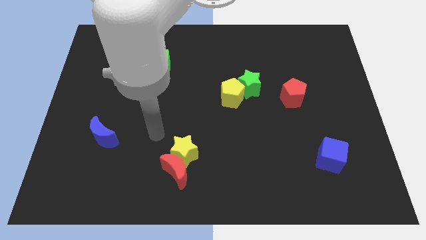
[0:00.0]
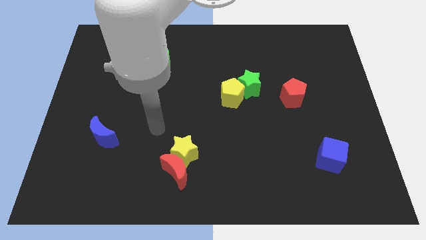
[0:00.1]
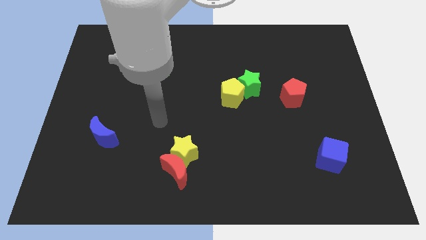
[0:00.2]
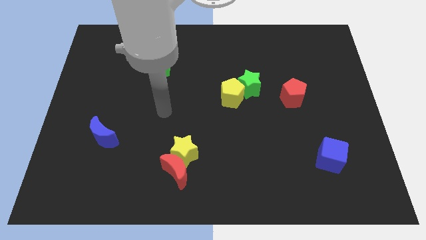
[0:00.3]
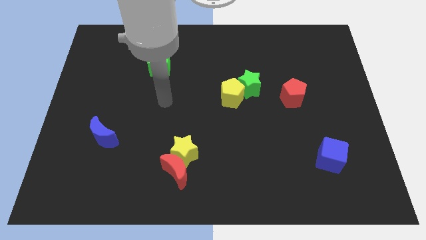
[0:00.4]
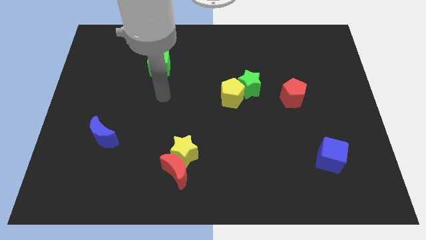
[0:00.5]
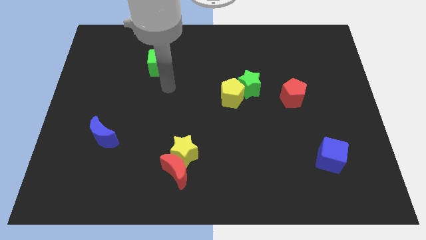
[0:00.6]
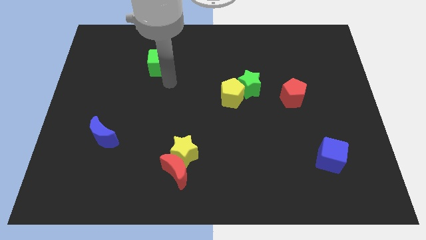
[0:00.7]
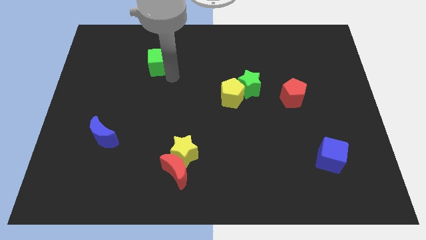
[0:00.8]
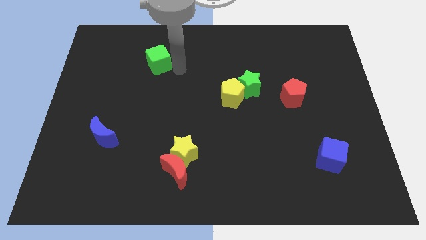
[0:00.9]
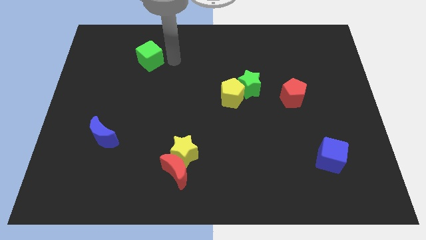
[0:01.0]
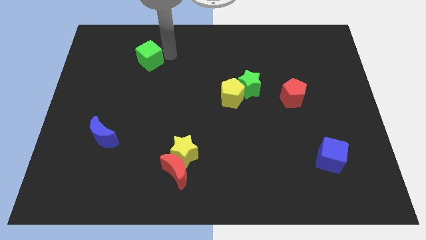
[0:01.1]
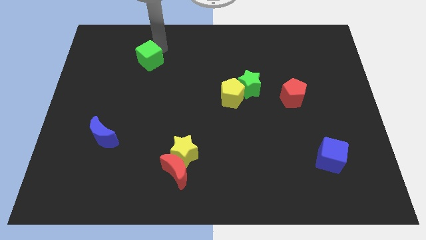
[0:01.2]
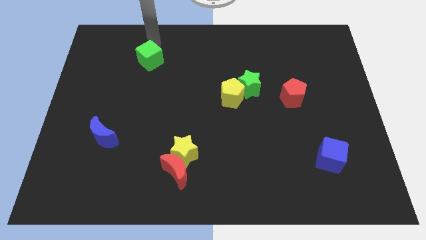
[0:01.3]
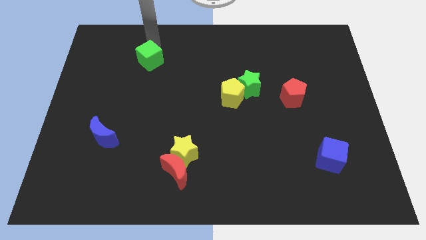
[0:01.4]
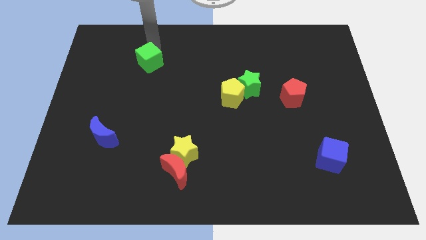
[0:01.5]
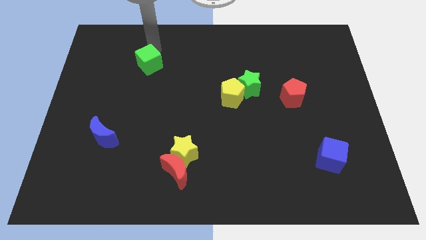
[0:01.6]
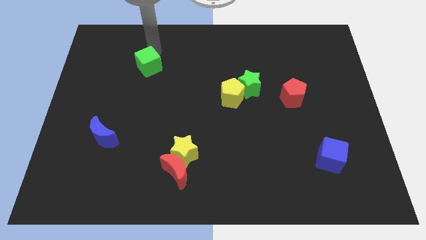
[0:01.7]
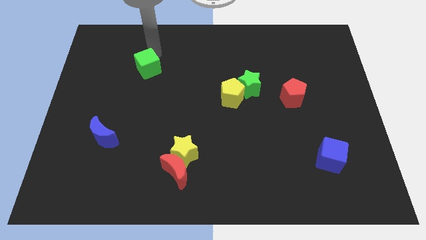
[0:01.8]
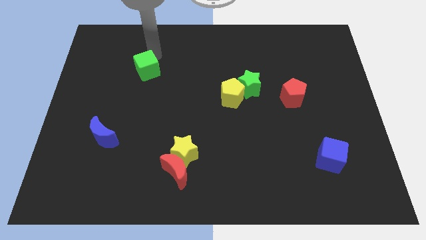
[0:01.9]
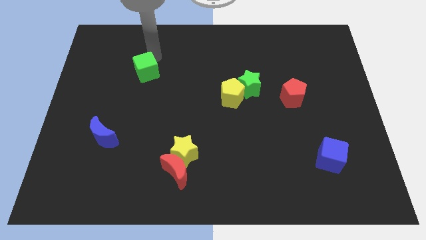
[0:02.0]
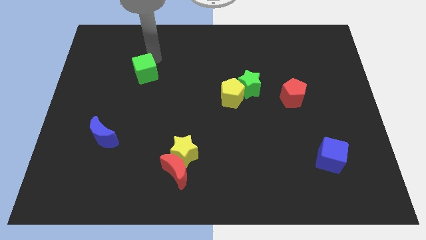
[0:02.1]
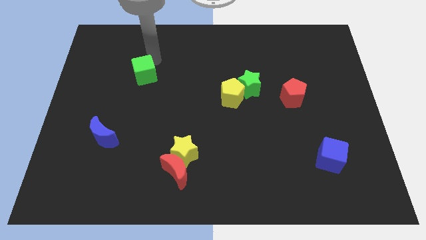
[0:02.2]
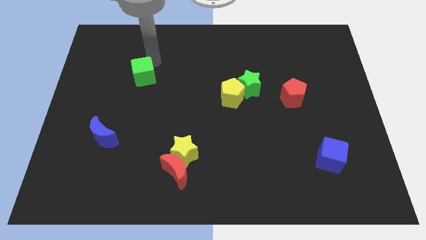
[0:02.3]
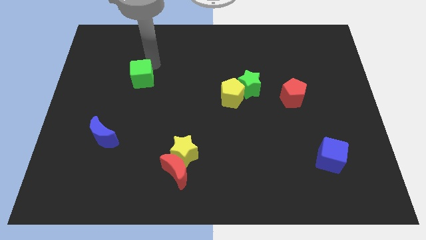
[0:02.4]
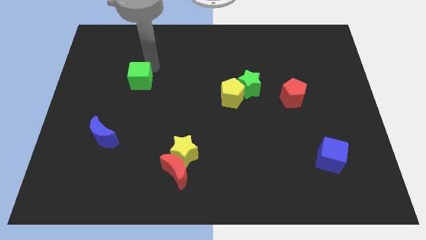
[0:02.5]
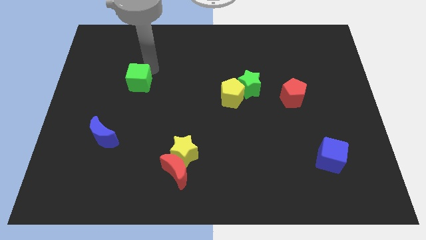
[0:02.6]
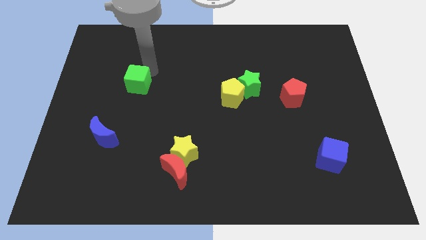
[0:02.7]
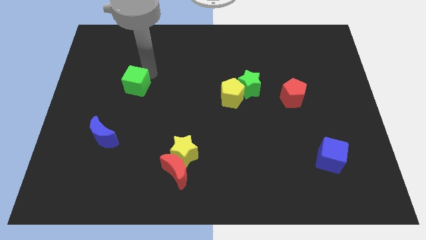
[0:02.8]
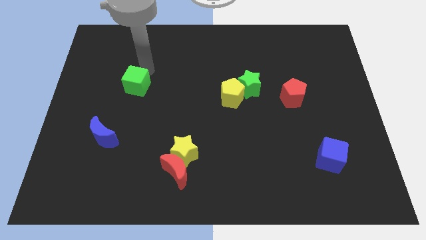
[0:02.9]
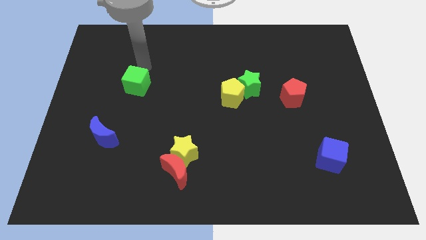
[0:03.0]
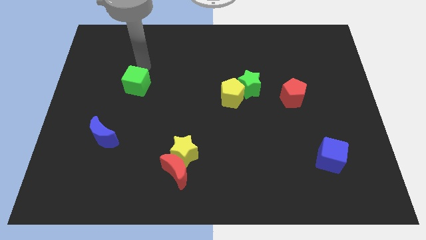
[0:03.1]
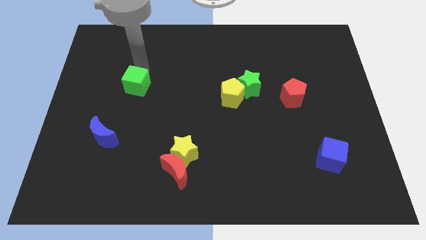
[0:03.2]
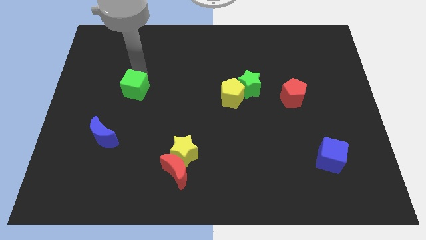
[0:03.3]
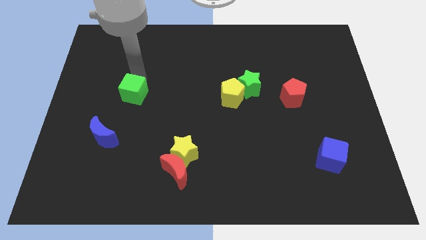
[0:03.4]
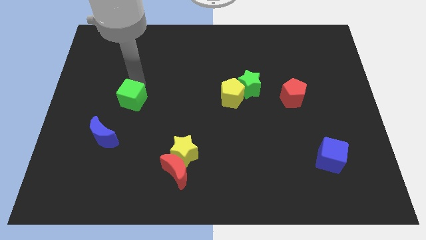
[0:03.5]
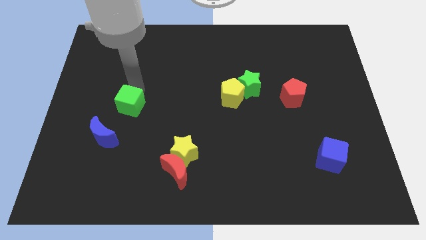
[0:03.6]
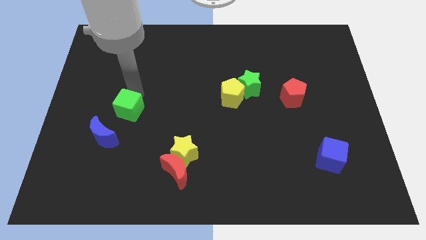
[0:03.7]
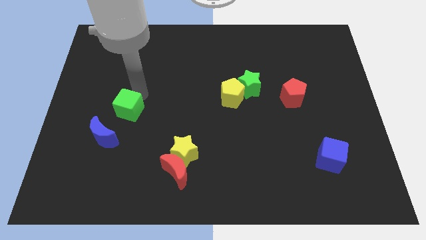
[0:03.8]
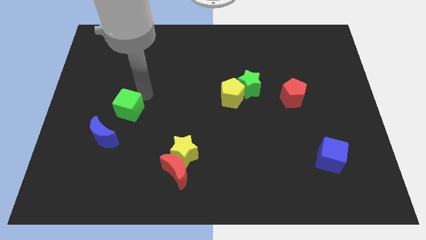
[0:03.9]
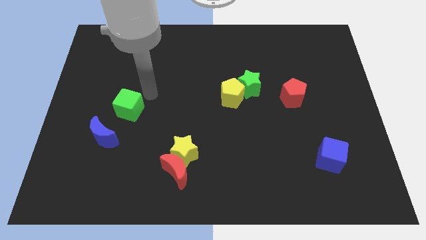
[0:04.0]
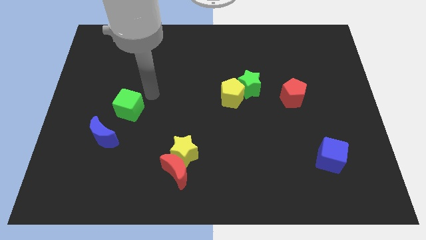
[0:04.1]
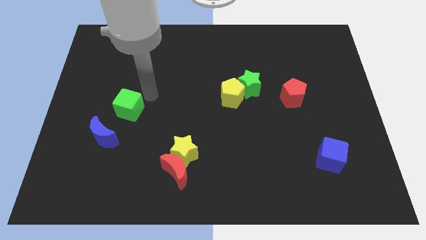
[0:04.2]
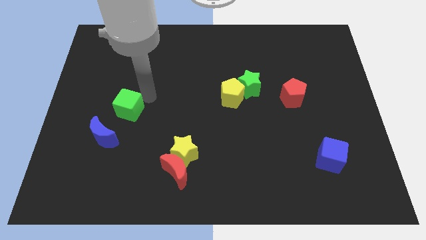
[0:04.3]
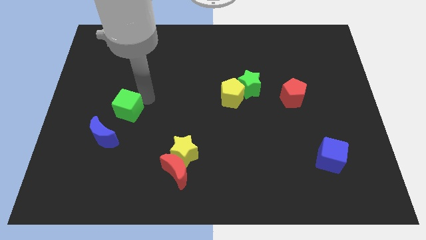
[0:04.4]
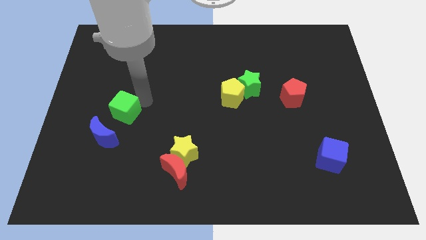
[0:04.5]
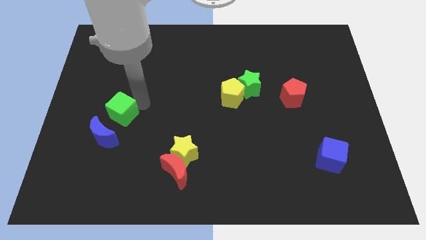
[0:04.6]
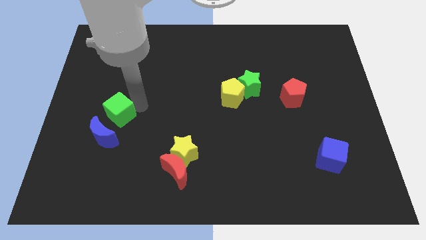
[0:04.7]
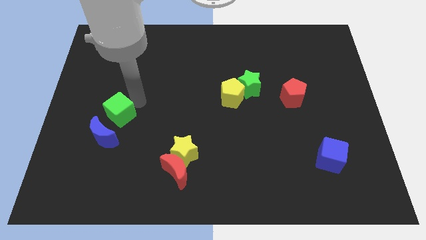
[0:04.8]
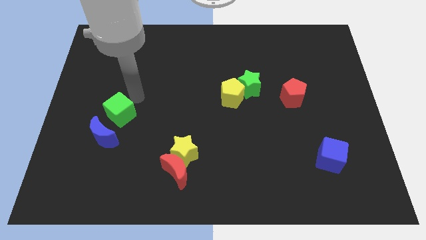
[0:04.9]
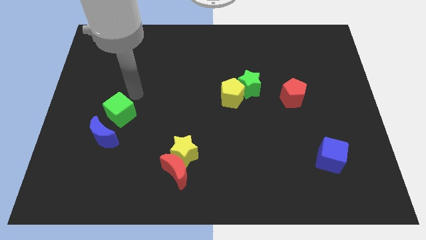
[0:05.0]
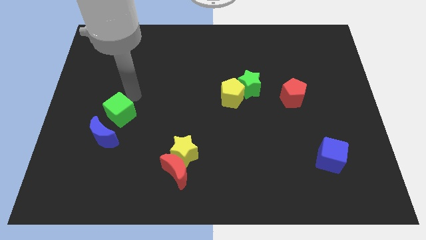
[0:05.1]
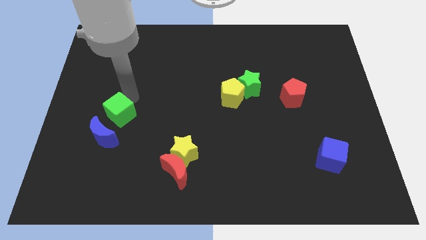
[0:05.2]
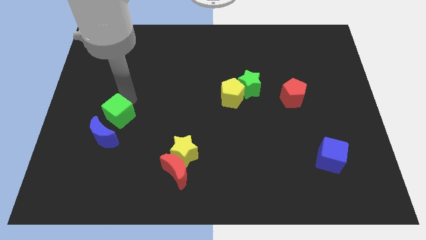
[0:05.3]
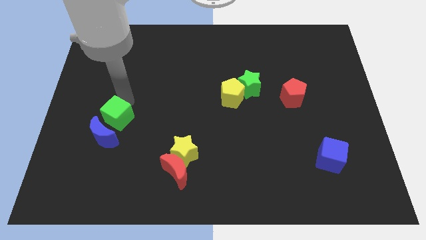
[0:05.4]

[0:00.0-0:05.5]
slide the green cube towards the blue moon

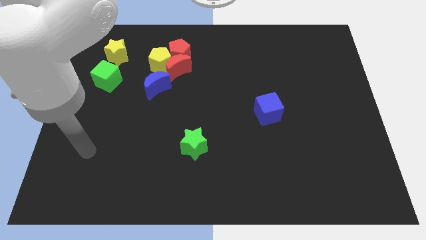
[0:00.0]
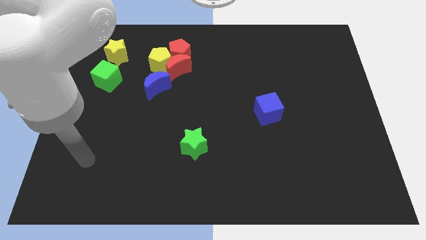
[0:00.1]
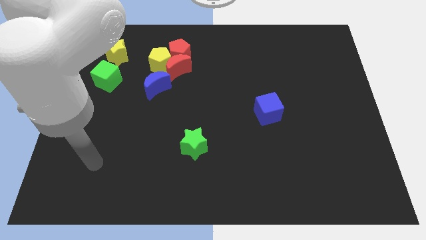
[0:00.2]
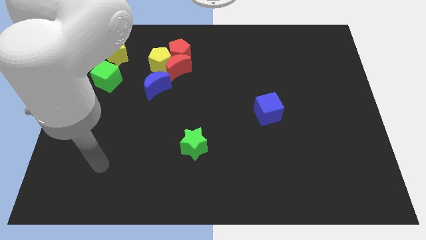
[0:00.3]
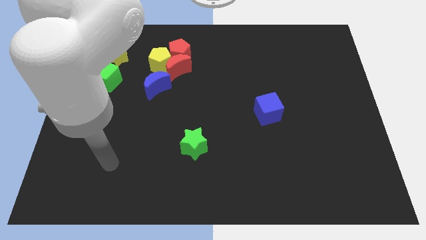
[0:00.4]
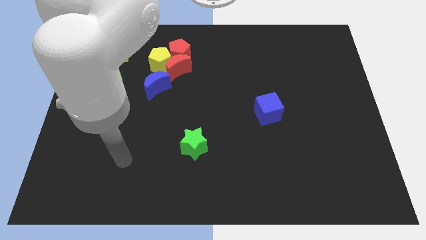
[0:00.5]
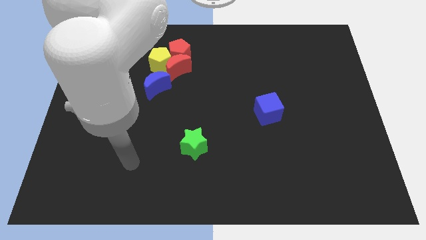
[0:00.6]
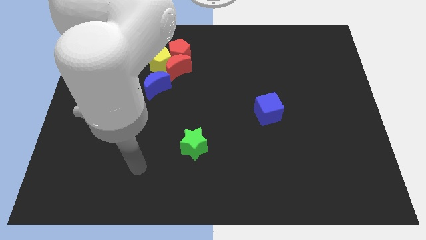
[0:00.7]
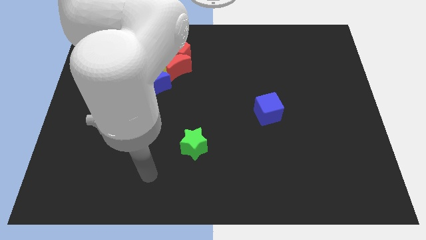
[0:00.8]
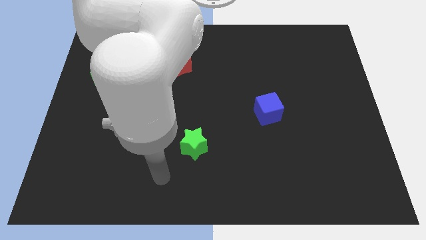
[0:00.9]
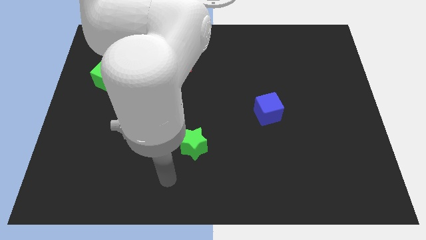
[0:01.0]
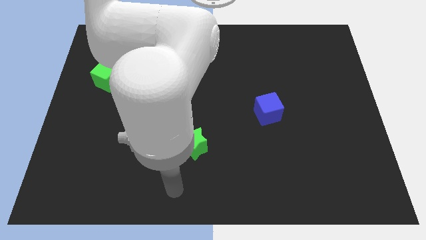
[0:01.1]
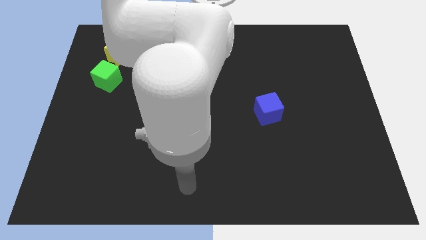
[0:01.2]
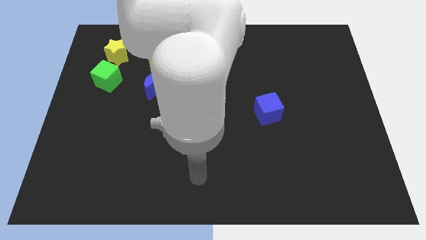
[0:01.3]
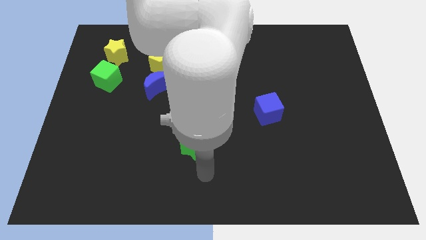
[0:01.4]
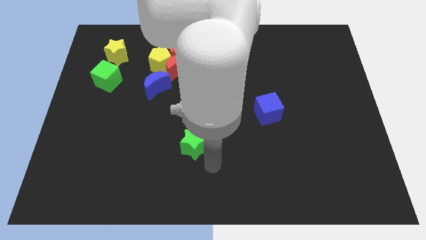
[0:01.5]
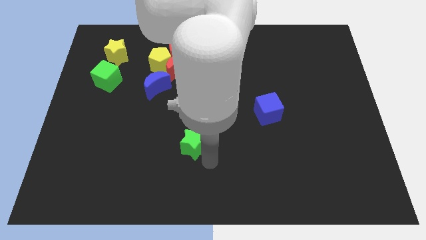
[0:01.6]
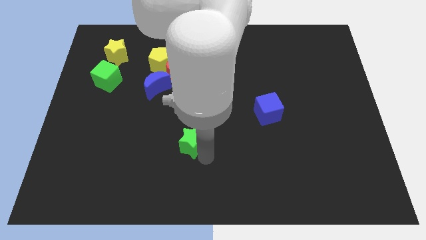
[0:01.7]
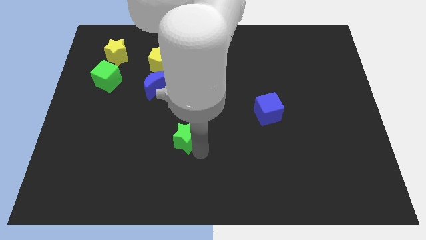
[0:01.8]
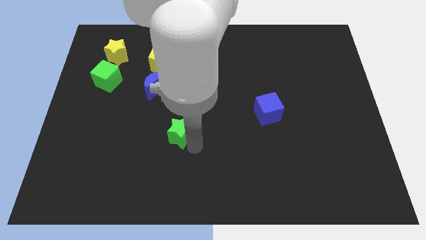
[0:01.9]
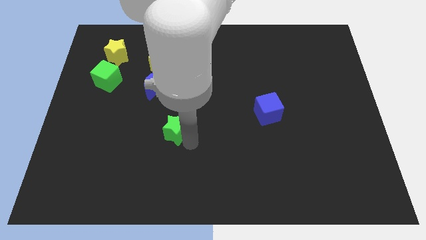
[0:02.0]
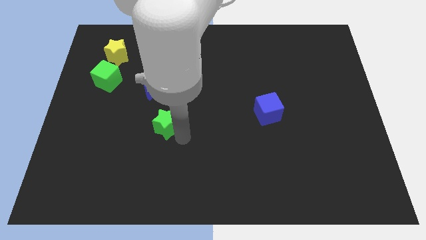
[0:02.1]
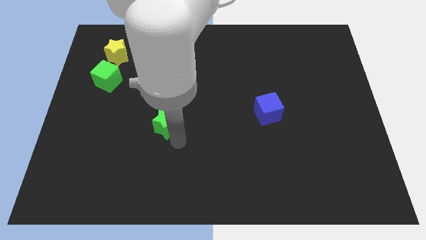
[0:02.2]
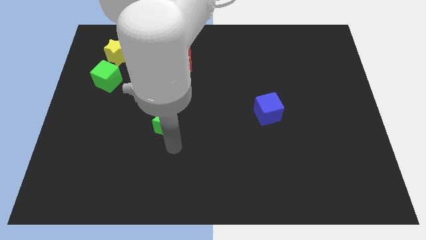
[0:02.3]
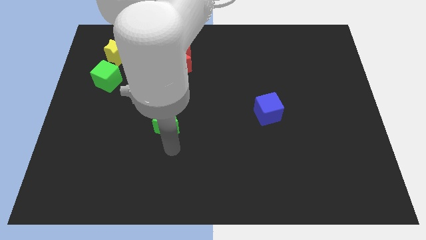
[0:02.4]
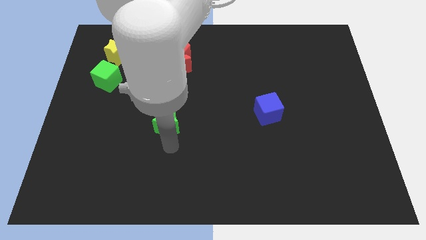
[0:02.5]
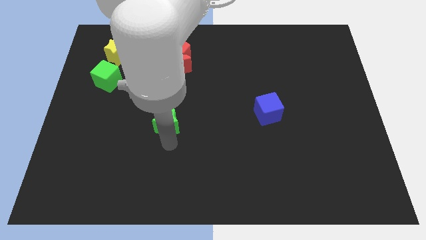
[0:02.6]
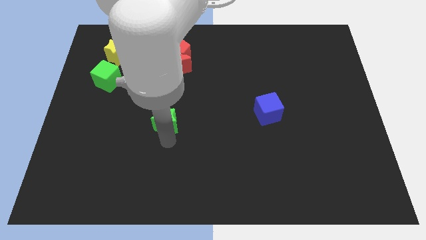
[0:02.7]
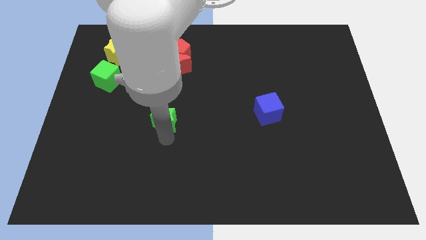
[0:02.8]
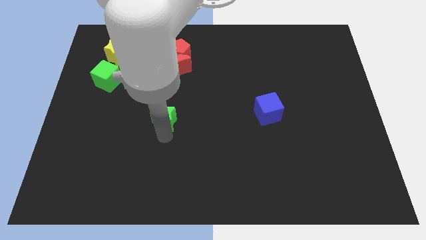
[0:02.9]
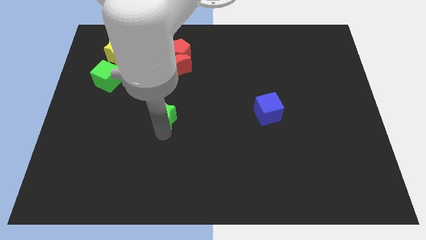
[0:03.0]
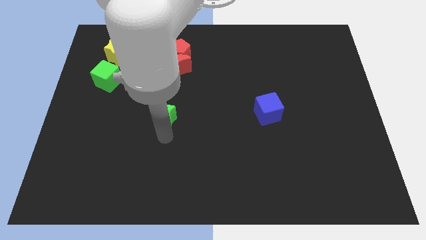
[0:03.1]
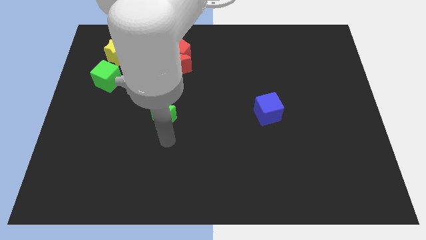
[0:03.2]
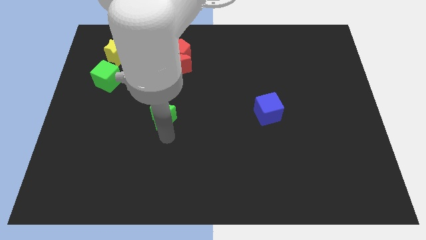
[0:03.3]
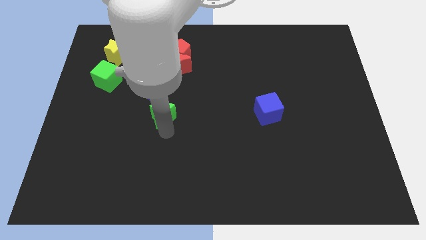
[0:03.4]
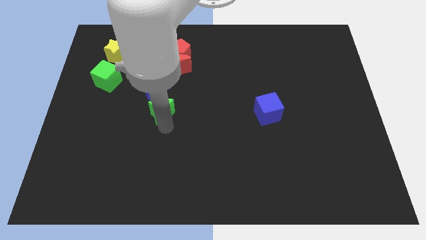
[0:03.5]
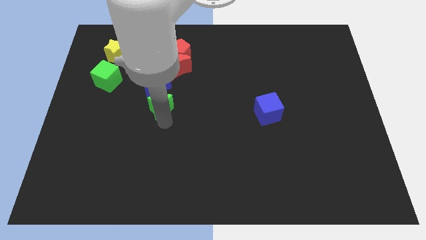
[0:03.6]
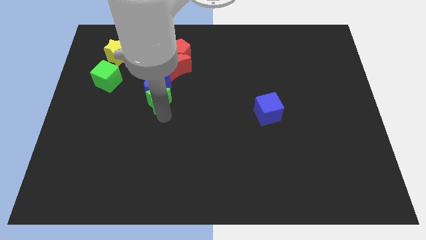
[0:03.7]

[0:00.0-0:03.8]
move the green star towards the blue moon
